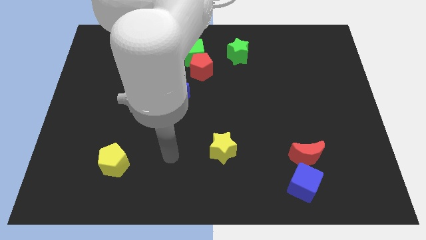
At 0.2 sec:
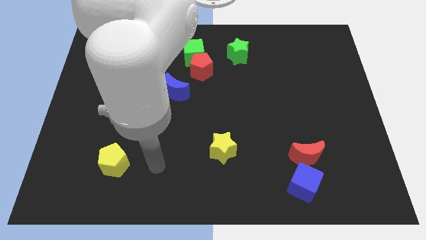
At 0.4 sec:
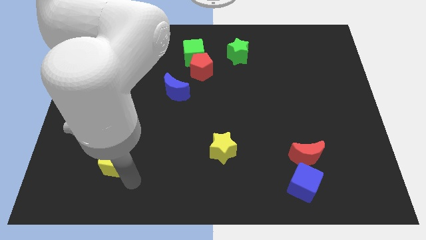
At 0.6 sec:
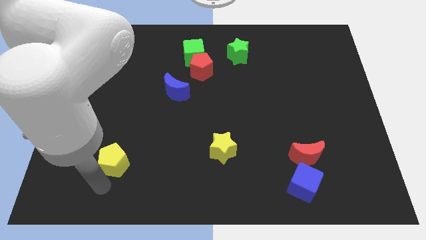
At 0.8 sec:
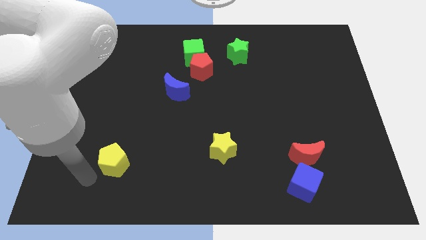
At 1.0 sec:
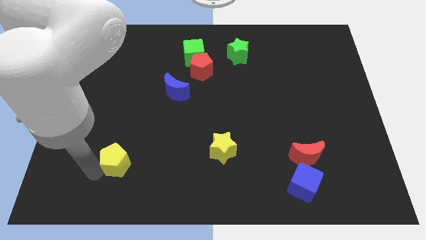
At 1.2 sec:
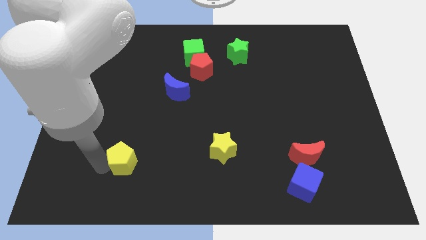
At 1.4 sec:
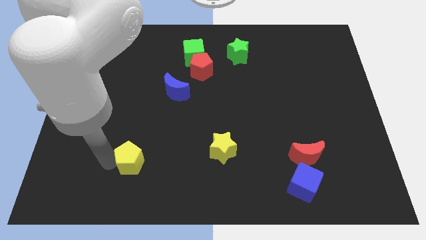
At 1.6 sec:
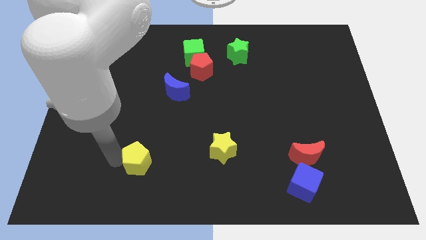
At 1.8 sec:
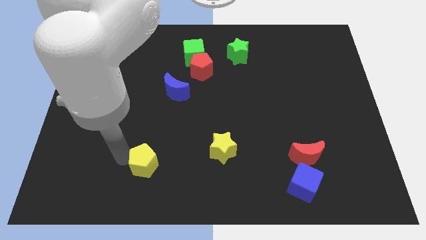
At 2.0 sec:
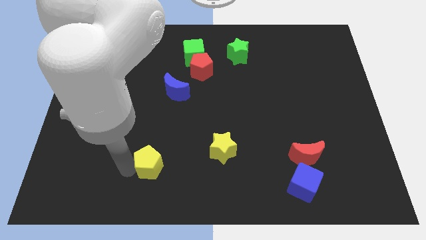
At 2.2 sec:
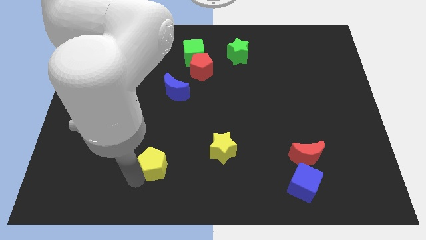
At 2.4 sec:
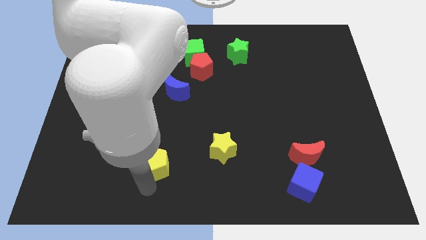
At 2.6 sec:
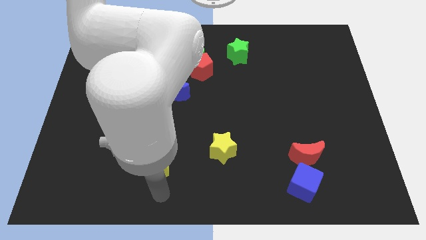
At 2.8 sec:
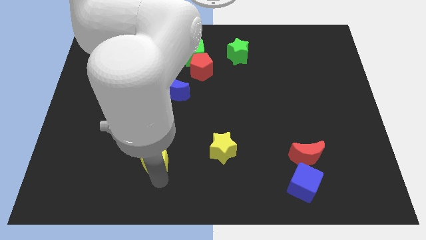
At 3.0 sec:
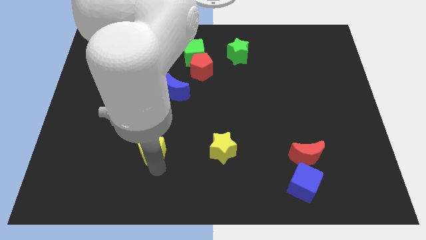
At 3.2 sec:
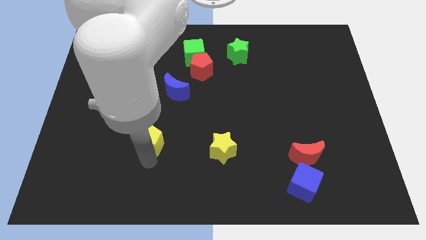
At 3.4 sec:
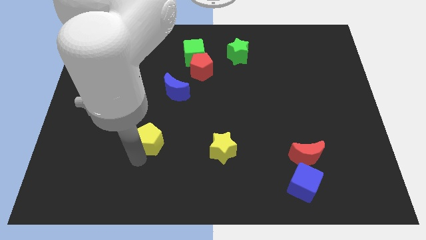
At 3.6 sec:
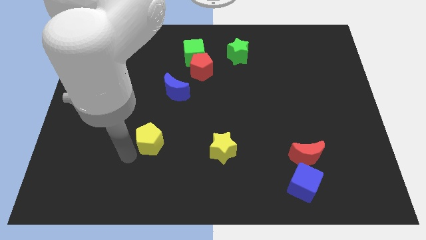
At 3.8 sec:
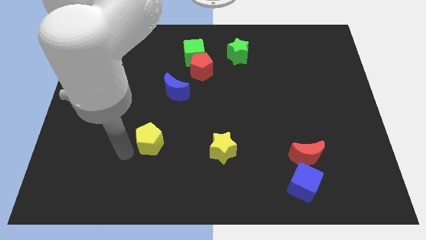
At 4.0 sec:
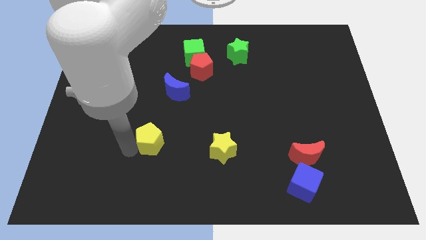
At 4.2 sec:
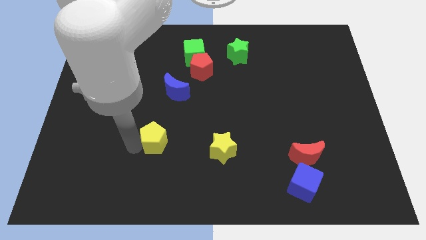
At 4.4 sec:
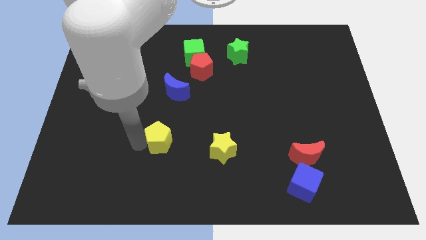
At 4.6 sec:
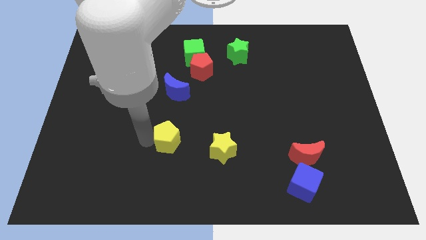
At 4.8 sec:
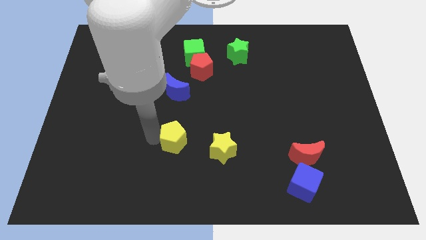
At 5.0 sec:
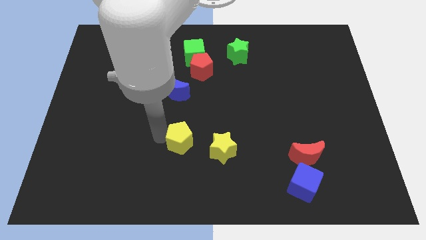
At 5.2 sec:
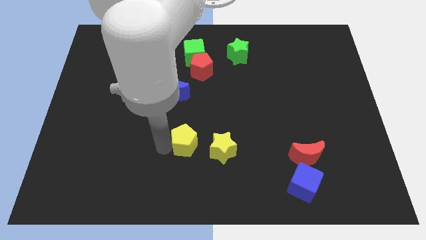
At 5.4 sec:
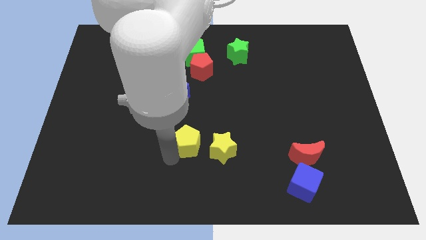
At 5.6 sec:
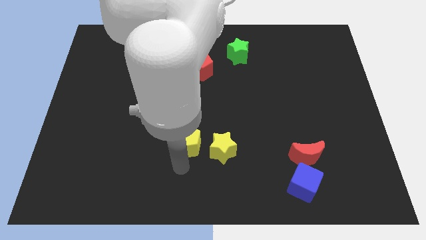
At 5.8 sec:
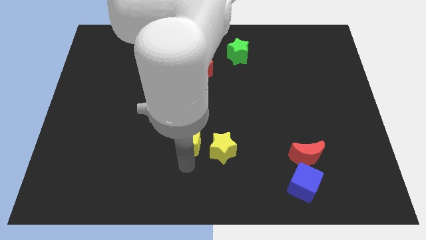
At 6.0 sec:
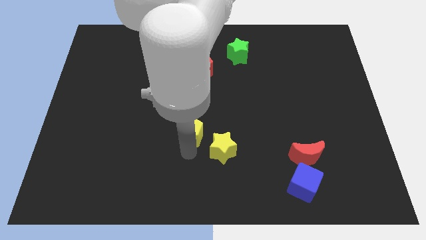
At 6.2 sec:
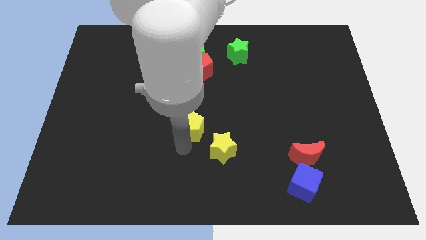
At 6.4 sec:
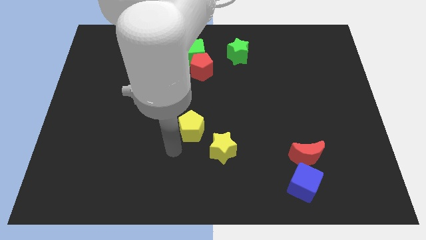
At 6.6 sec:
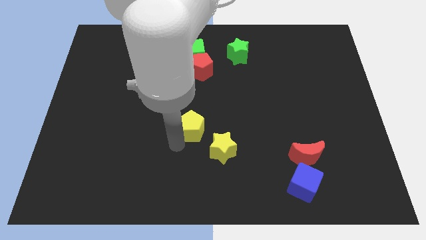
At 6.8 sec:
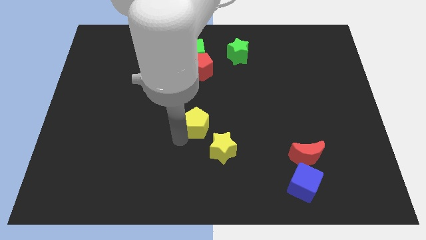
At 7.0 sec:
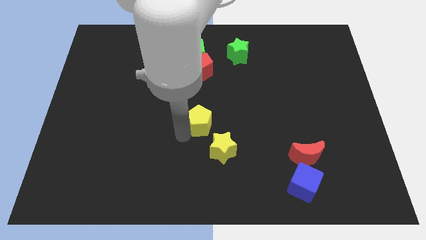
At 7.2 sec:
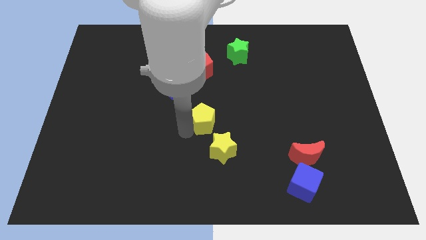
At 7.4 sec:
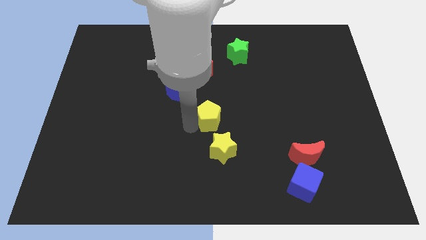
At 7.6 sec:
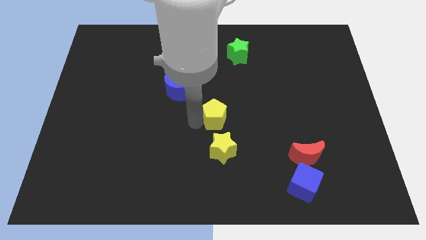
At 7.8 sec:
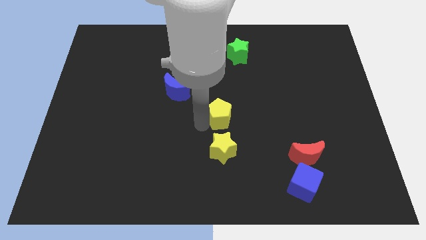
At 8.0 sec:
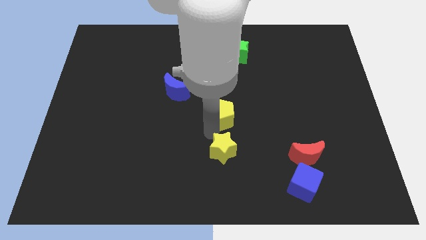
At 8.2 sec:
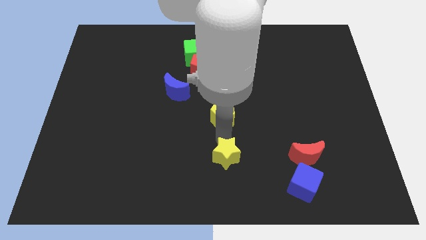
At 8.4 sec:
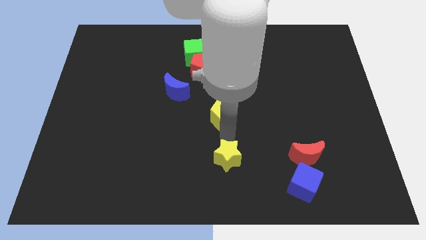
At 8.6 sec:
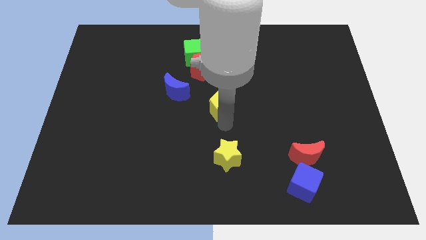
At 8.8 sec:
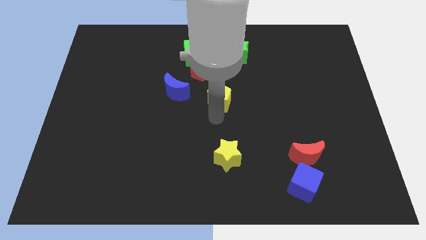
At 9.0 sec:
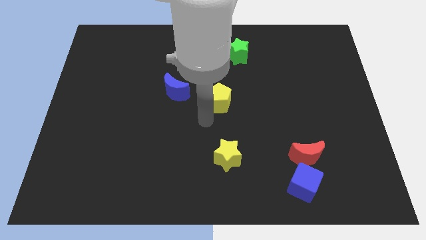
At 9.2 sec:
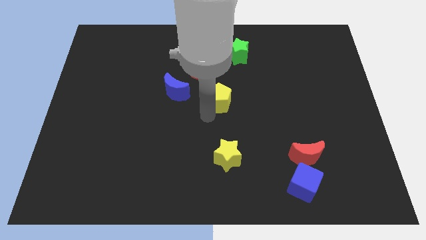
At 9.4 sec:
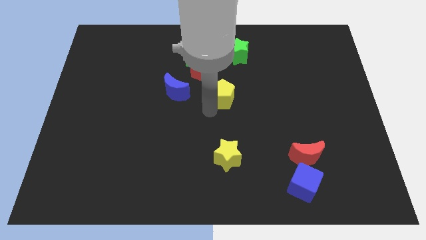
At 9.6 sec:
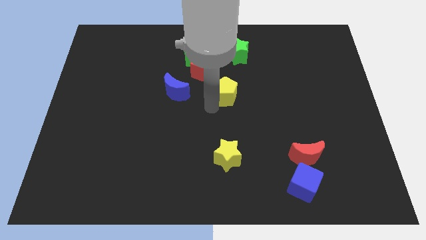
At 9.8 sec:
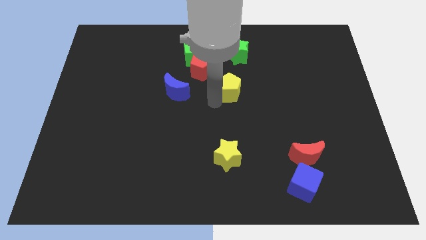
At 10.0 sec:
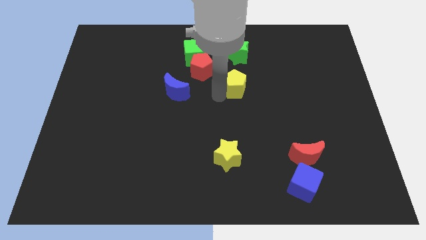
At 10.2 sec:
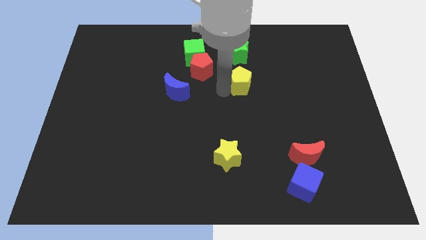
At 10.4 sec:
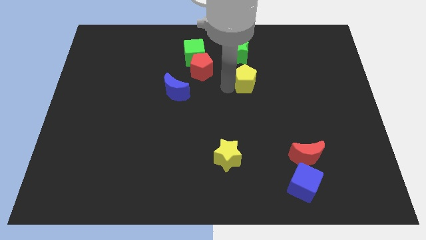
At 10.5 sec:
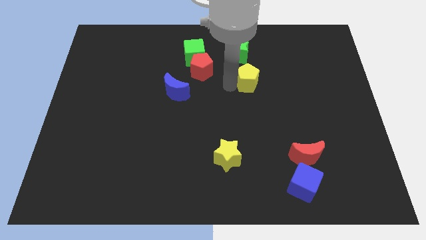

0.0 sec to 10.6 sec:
put the yellow pentagon to the bottom right of the green star

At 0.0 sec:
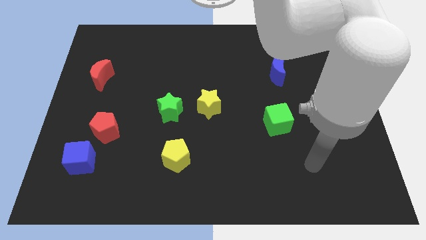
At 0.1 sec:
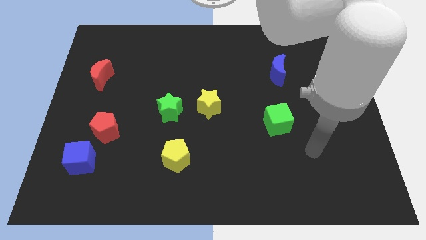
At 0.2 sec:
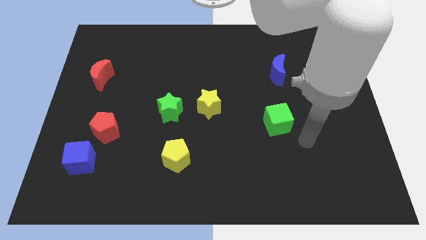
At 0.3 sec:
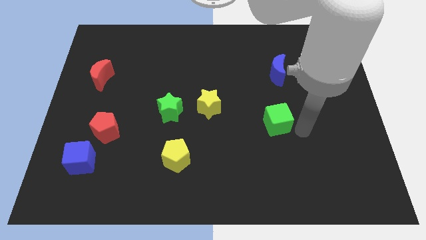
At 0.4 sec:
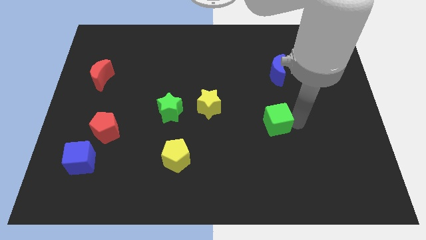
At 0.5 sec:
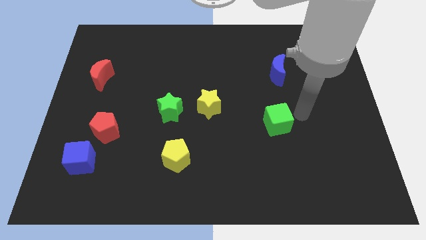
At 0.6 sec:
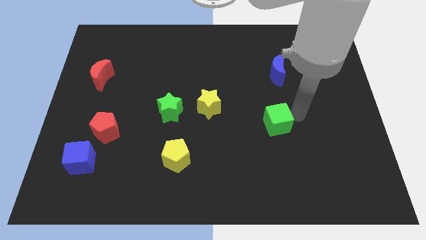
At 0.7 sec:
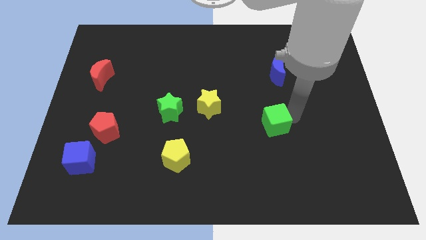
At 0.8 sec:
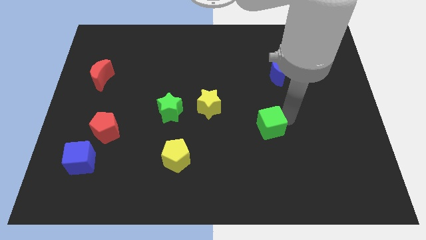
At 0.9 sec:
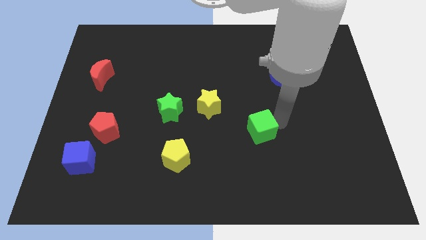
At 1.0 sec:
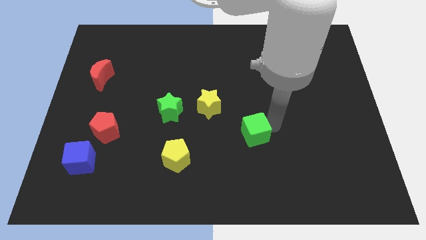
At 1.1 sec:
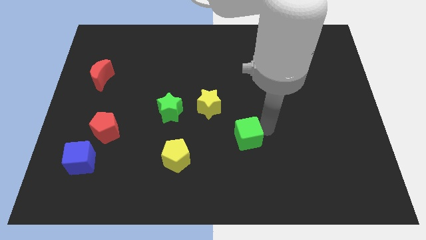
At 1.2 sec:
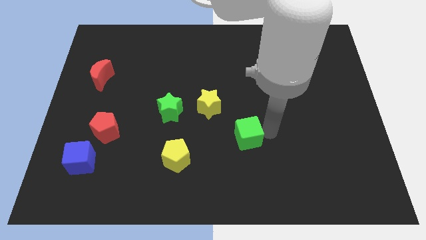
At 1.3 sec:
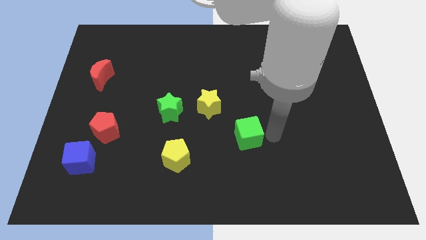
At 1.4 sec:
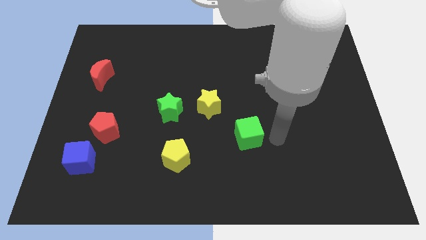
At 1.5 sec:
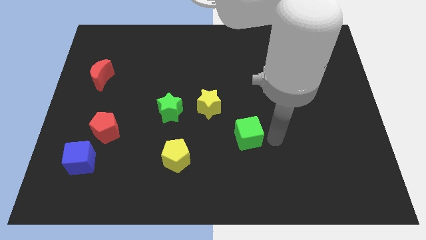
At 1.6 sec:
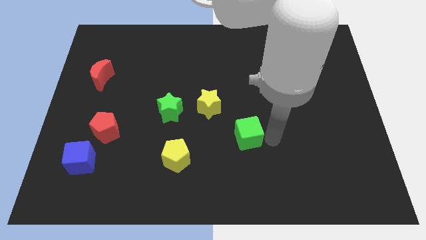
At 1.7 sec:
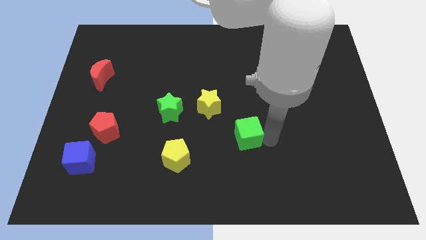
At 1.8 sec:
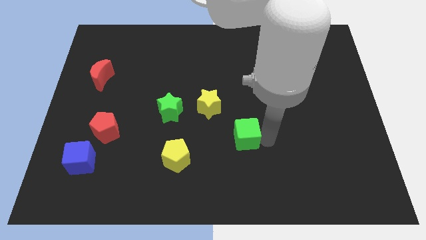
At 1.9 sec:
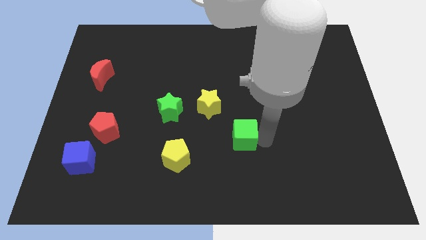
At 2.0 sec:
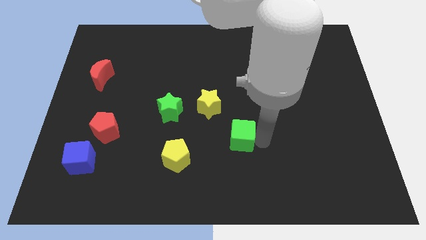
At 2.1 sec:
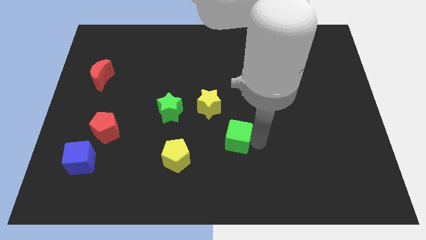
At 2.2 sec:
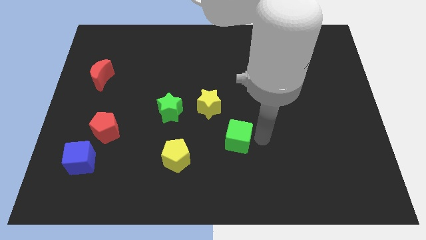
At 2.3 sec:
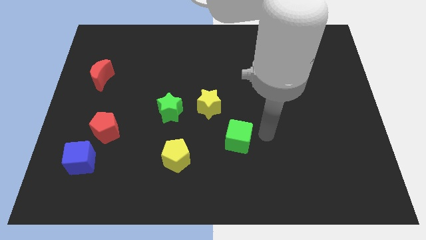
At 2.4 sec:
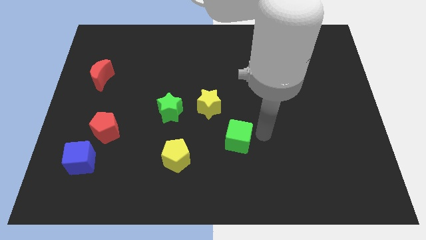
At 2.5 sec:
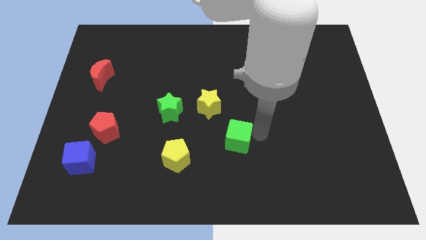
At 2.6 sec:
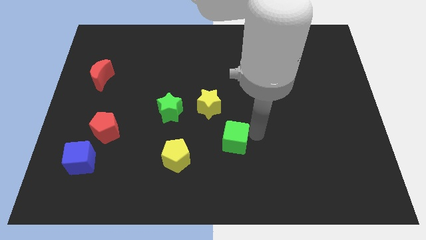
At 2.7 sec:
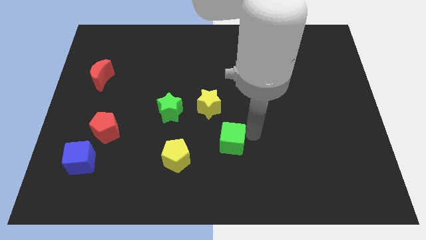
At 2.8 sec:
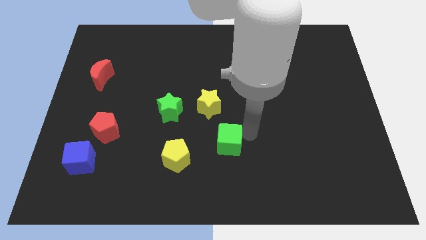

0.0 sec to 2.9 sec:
push the green cube to the bottom side of the yellow star
